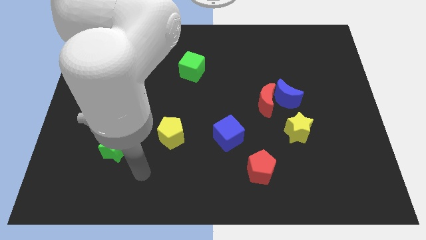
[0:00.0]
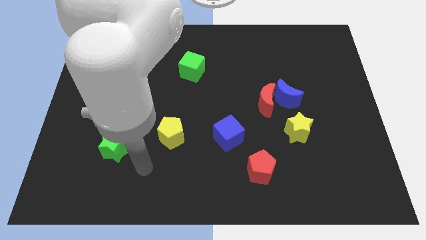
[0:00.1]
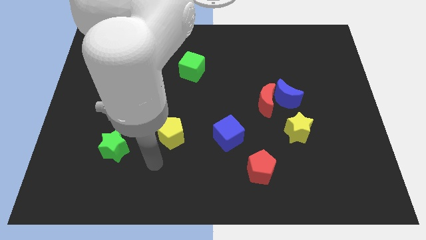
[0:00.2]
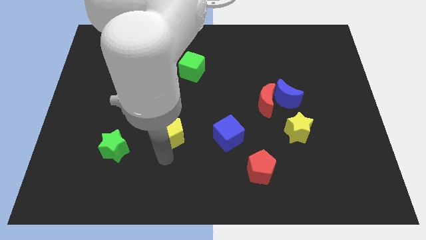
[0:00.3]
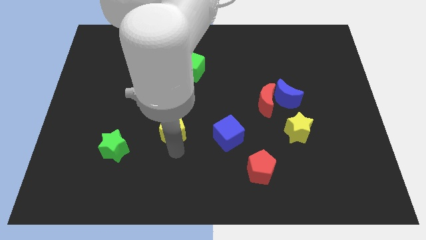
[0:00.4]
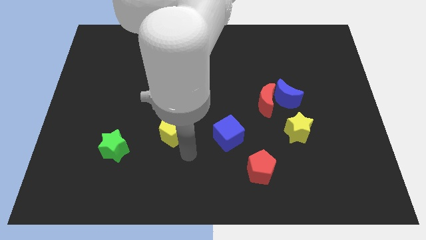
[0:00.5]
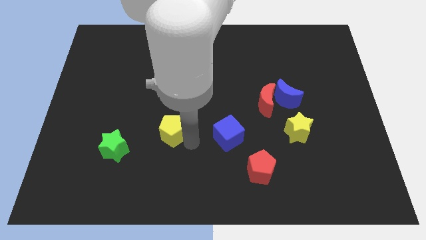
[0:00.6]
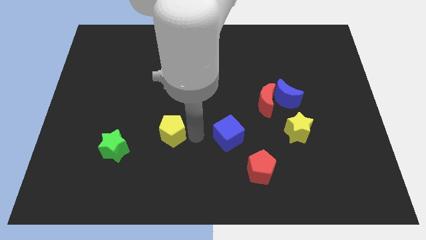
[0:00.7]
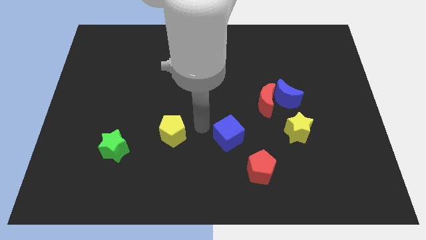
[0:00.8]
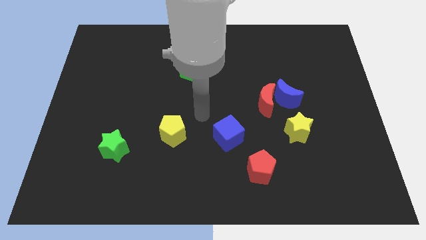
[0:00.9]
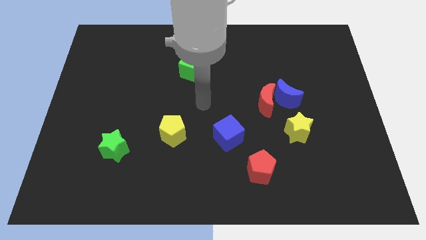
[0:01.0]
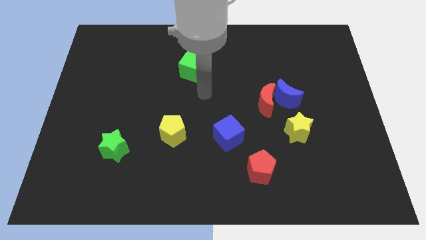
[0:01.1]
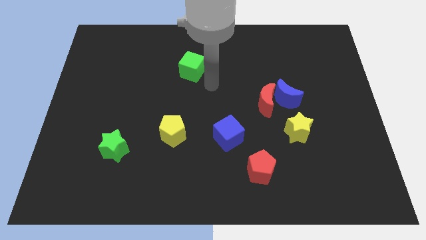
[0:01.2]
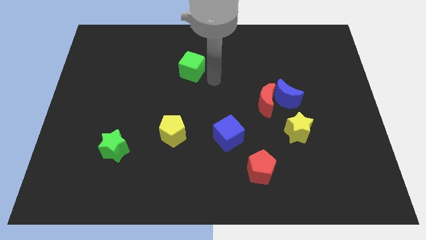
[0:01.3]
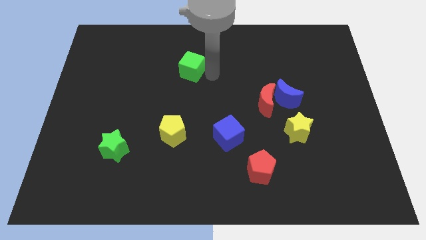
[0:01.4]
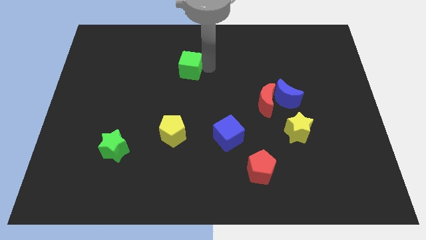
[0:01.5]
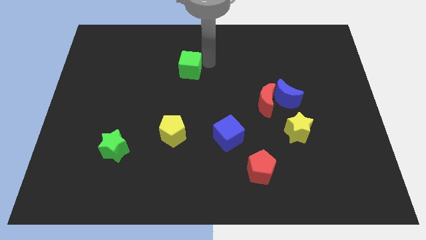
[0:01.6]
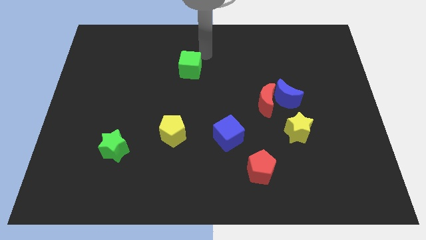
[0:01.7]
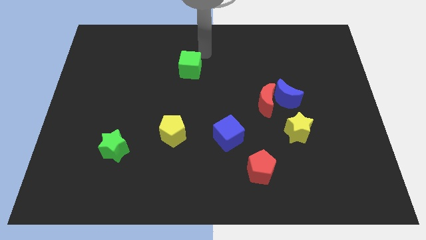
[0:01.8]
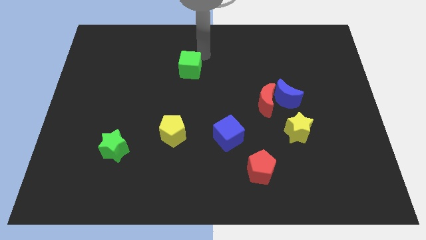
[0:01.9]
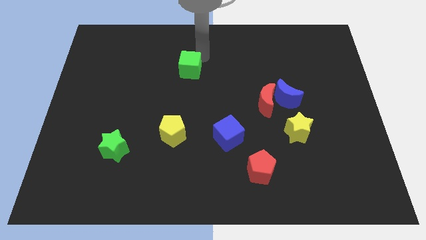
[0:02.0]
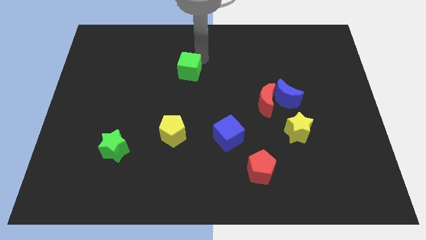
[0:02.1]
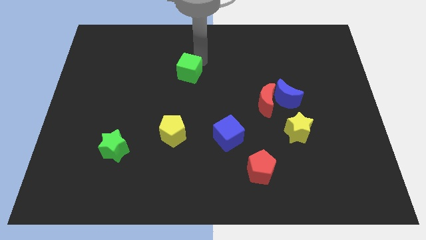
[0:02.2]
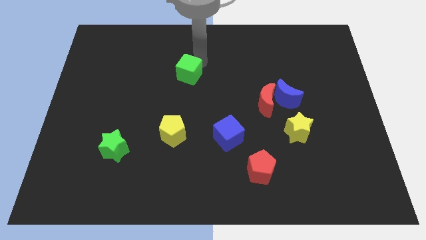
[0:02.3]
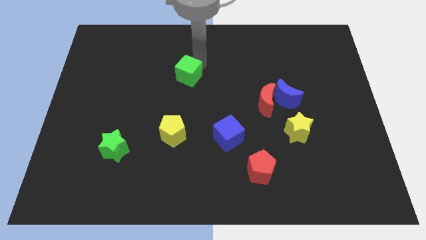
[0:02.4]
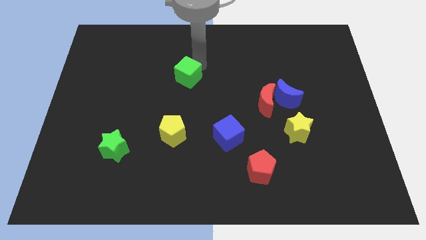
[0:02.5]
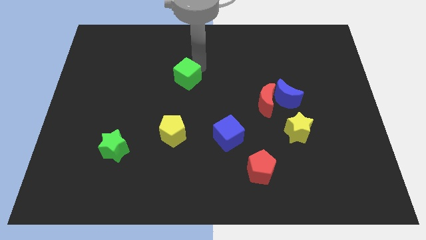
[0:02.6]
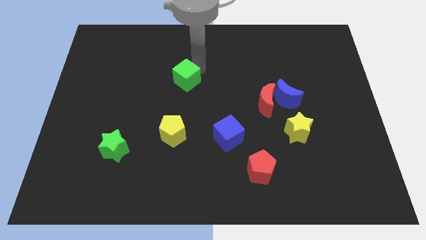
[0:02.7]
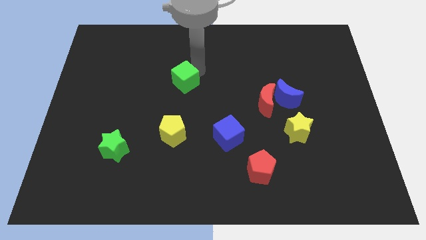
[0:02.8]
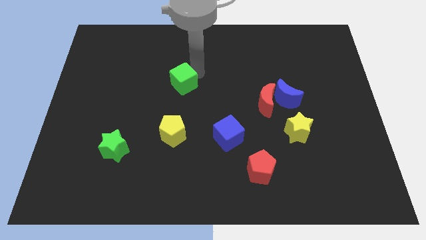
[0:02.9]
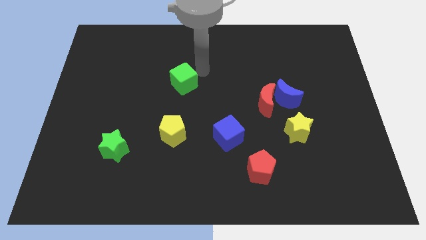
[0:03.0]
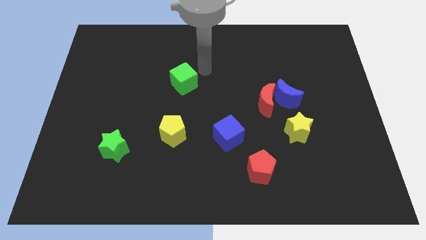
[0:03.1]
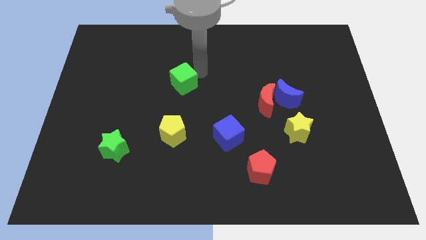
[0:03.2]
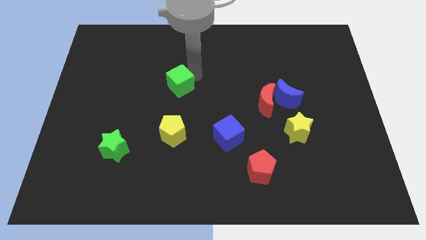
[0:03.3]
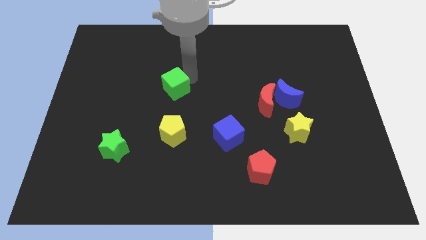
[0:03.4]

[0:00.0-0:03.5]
push the green cube a little diagonally downwards and left

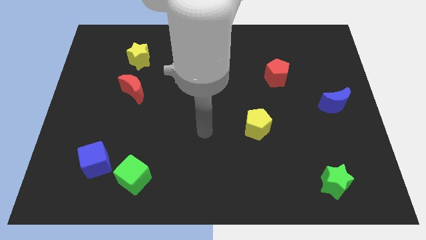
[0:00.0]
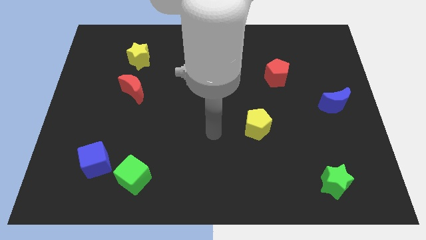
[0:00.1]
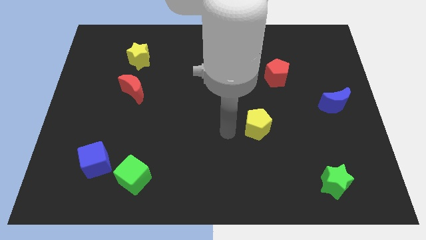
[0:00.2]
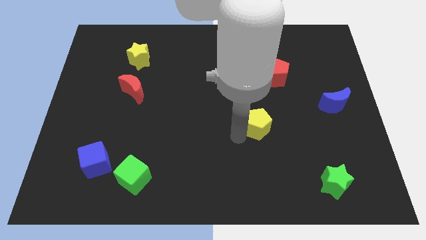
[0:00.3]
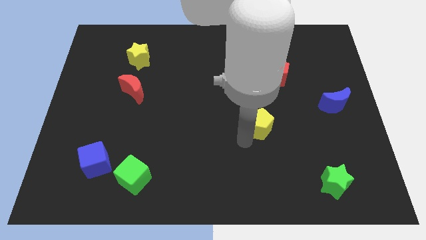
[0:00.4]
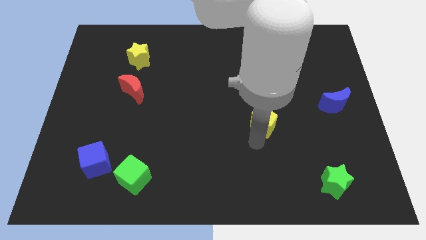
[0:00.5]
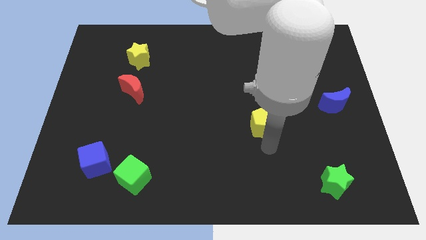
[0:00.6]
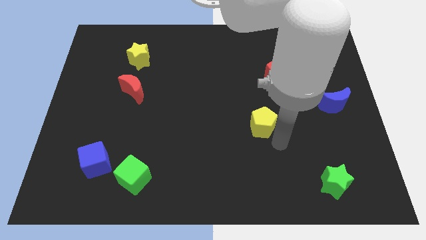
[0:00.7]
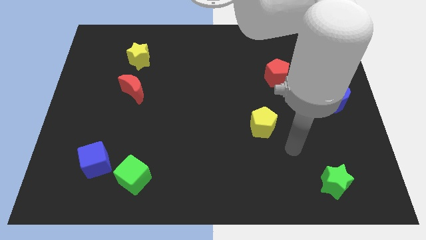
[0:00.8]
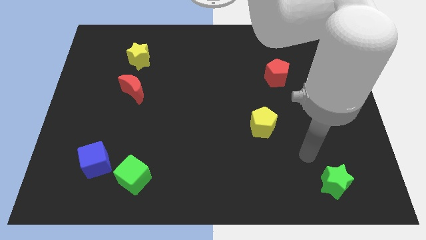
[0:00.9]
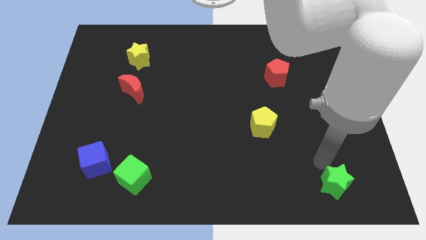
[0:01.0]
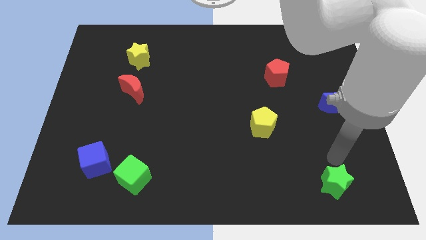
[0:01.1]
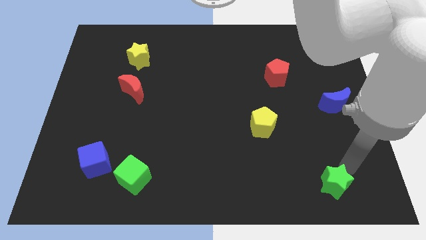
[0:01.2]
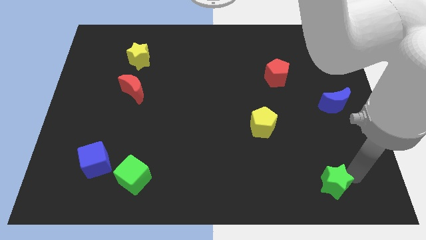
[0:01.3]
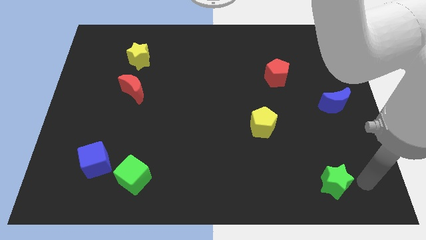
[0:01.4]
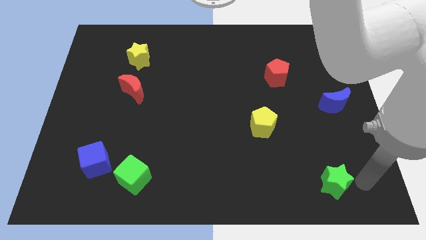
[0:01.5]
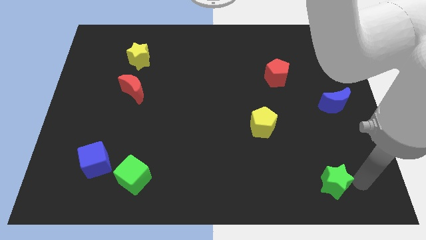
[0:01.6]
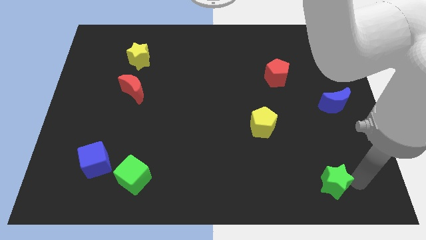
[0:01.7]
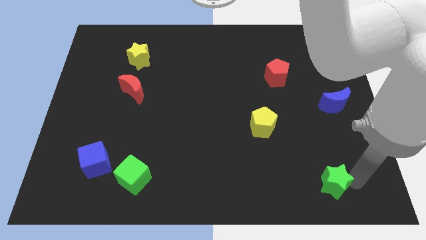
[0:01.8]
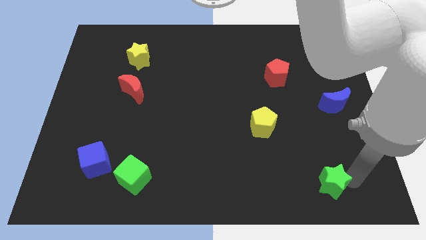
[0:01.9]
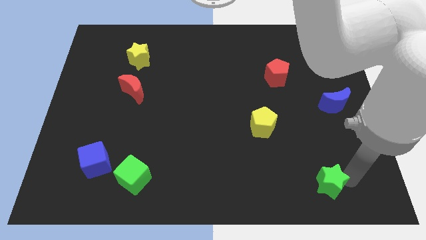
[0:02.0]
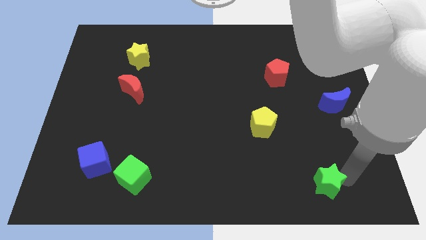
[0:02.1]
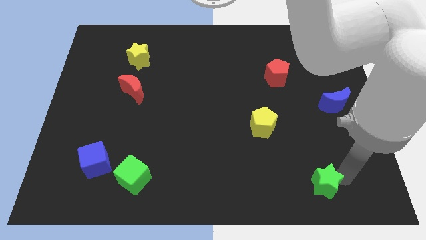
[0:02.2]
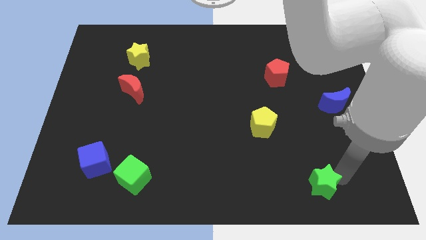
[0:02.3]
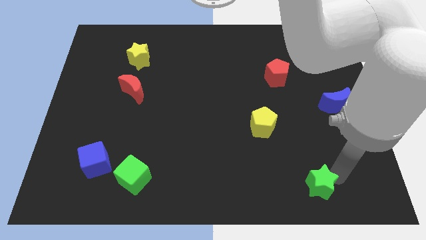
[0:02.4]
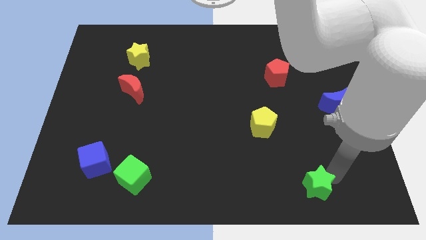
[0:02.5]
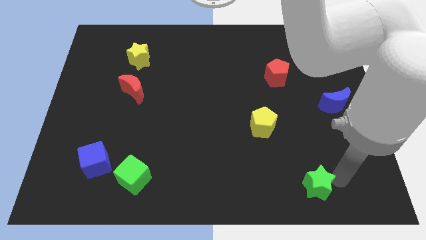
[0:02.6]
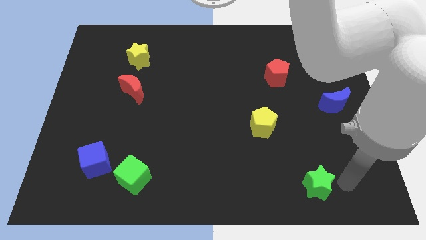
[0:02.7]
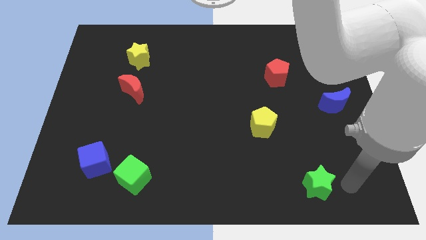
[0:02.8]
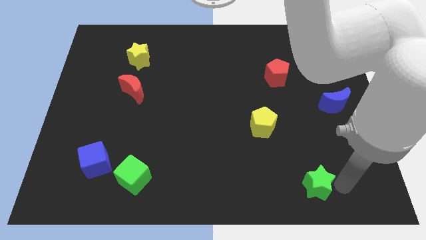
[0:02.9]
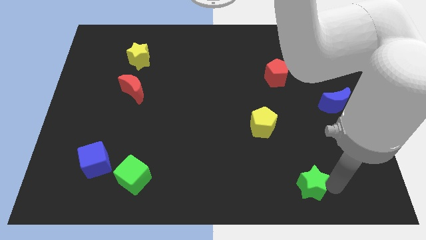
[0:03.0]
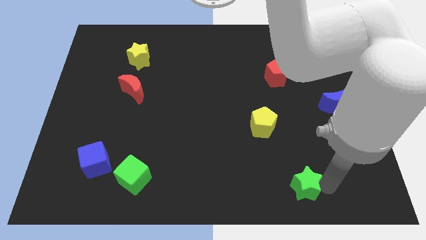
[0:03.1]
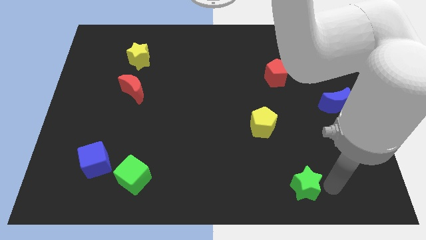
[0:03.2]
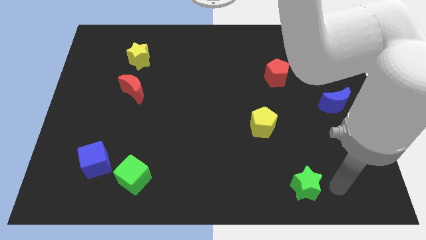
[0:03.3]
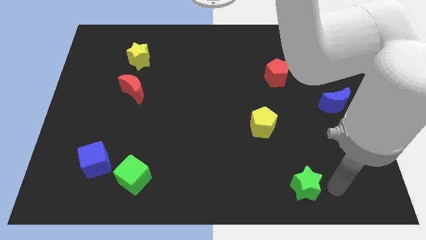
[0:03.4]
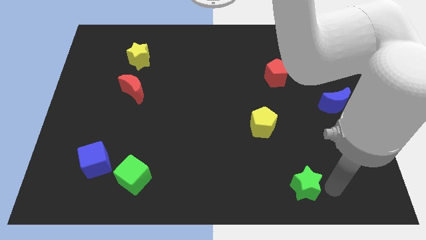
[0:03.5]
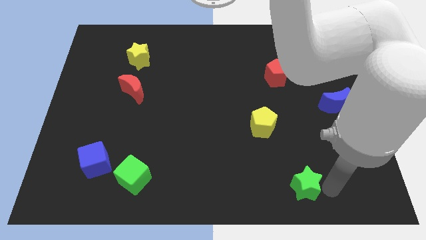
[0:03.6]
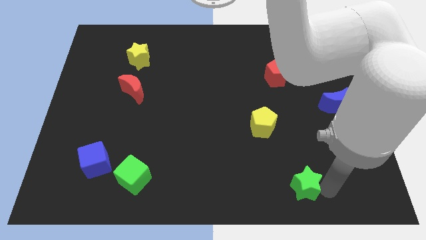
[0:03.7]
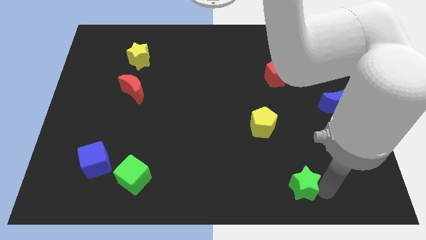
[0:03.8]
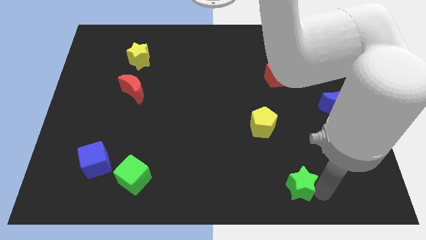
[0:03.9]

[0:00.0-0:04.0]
slightly move the green star left

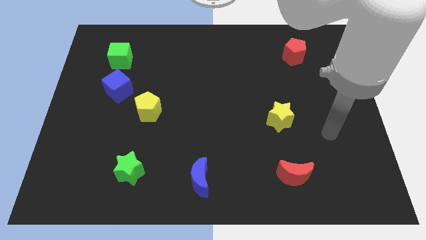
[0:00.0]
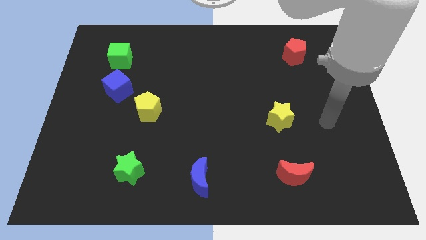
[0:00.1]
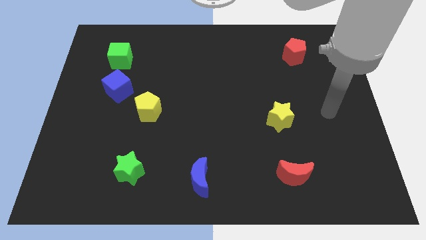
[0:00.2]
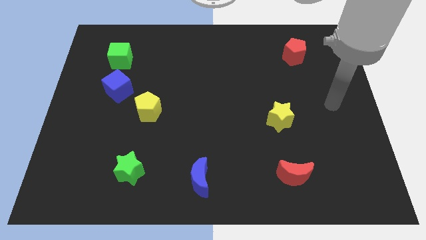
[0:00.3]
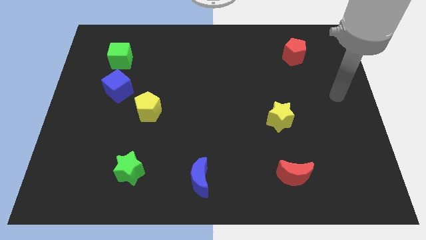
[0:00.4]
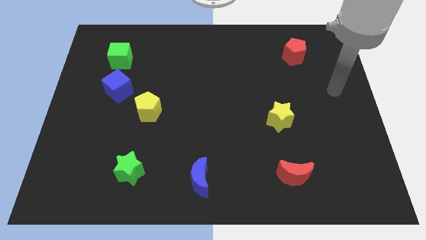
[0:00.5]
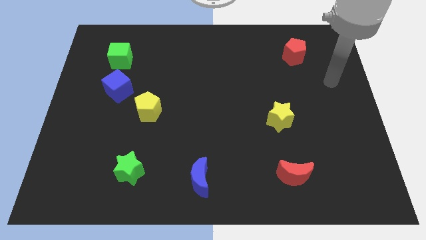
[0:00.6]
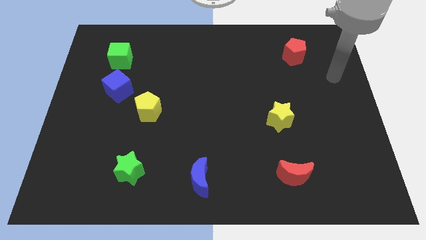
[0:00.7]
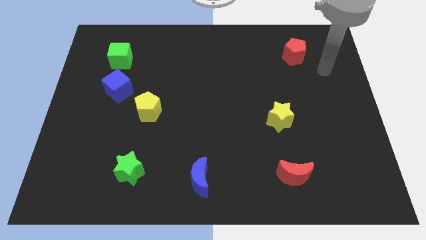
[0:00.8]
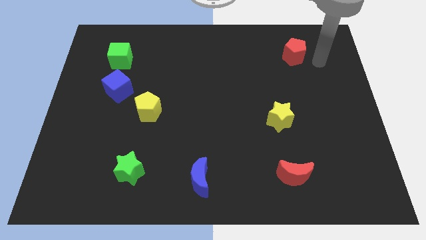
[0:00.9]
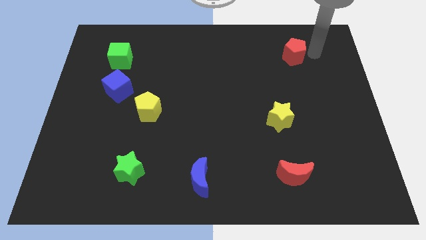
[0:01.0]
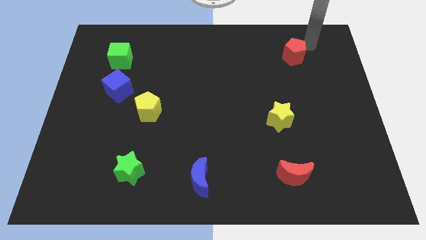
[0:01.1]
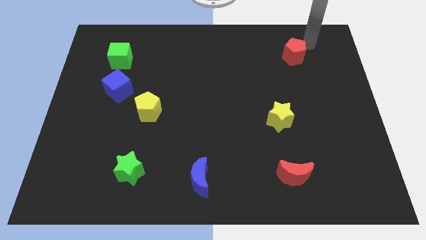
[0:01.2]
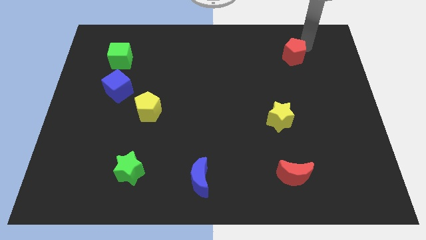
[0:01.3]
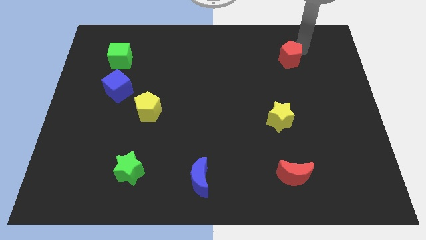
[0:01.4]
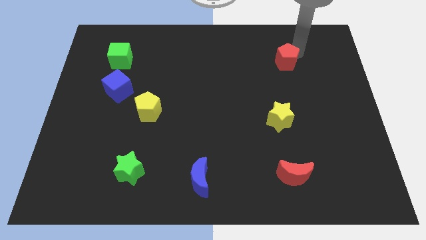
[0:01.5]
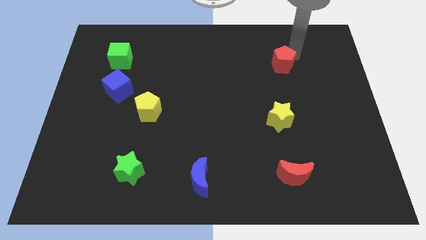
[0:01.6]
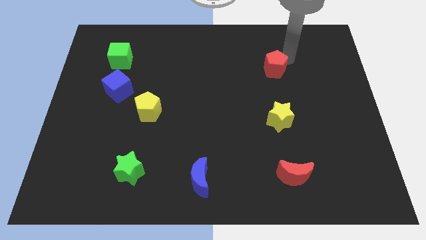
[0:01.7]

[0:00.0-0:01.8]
slightly move the red pentagon downwards and then left
